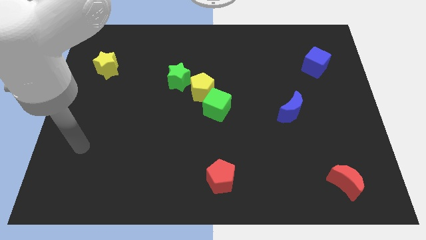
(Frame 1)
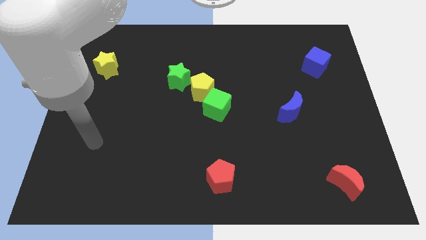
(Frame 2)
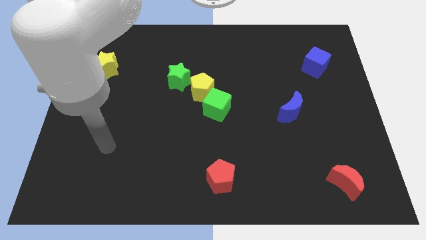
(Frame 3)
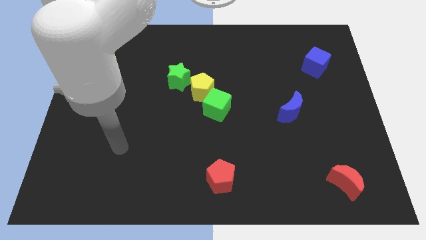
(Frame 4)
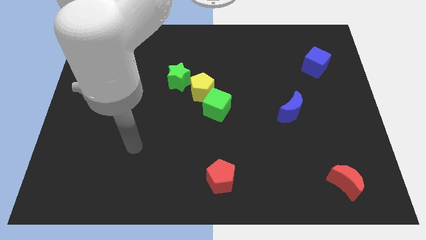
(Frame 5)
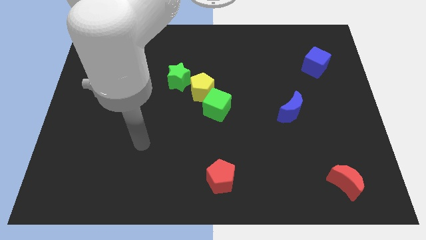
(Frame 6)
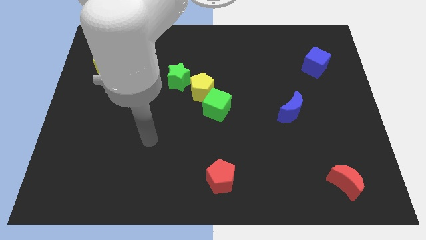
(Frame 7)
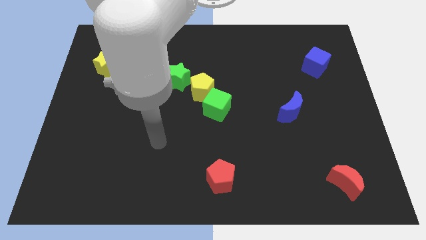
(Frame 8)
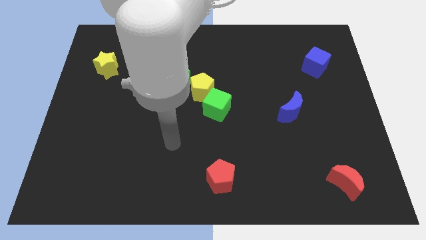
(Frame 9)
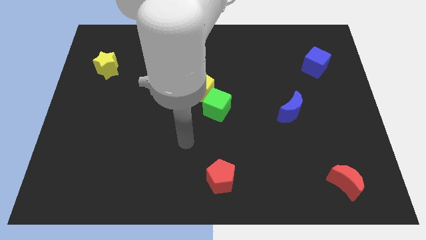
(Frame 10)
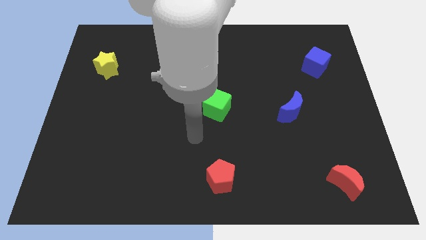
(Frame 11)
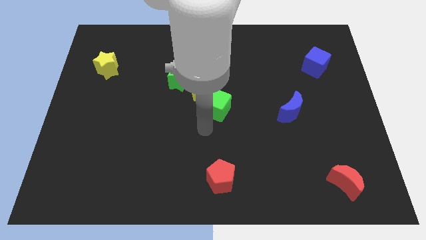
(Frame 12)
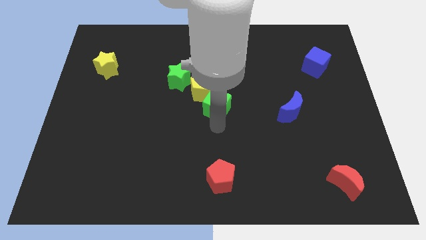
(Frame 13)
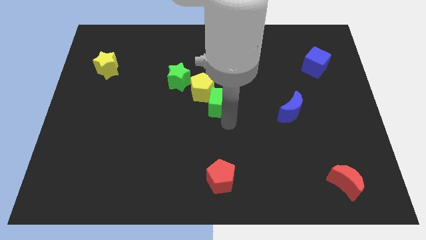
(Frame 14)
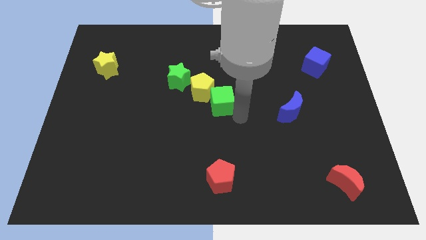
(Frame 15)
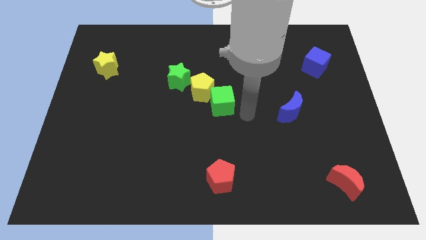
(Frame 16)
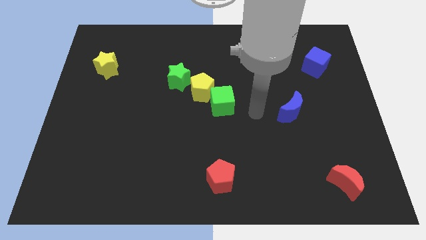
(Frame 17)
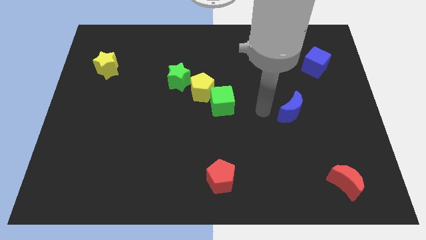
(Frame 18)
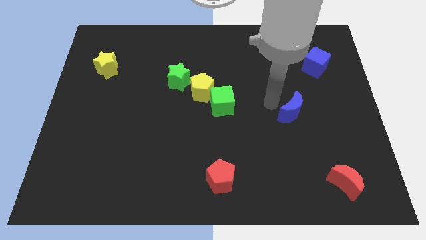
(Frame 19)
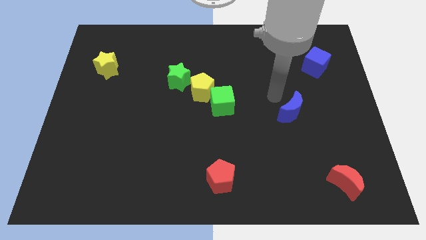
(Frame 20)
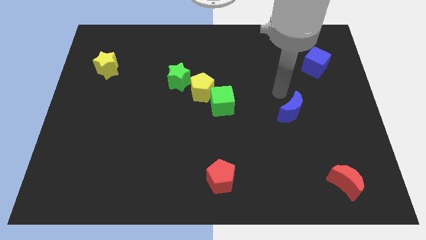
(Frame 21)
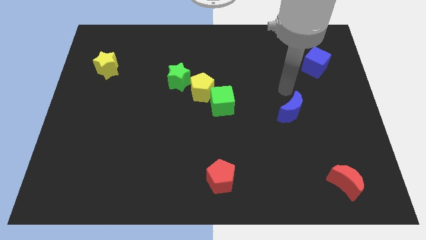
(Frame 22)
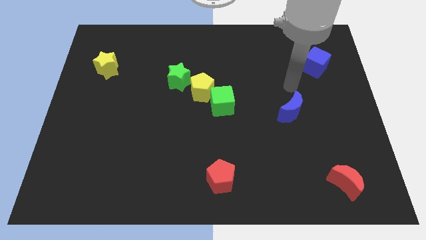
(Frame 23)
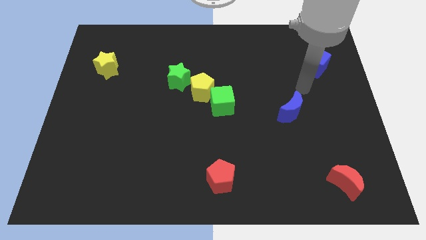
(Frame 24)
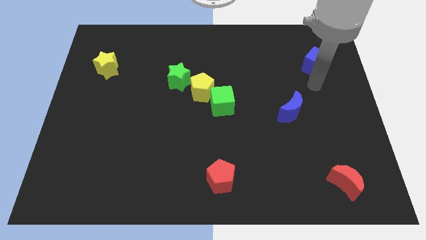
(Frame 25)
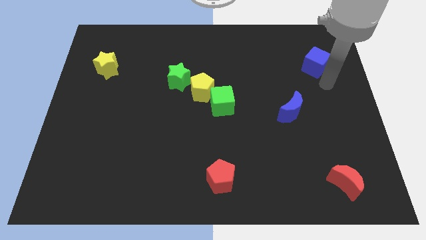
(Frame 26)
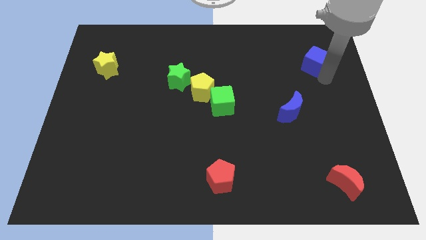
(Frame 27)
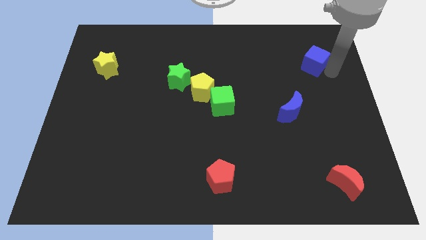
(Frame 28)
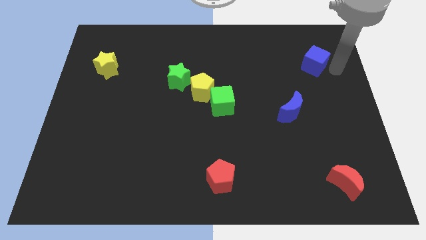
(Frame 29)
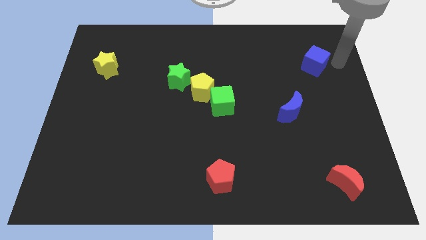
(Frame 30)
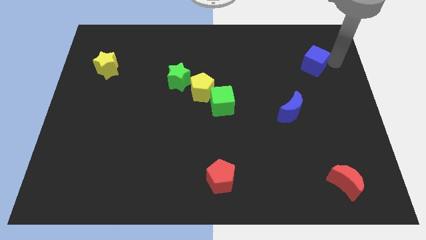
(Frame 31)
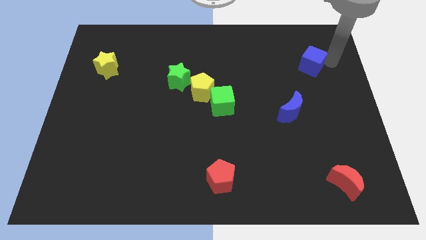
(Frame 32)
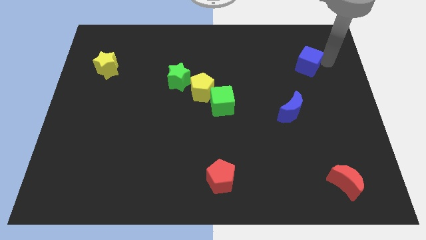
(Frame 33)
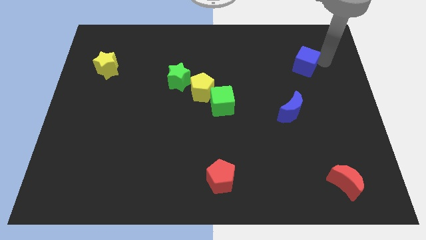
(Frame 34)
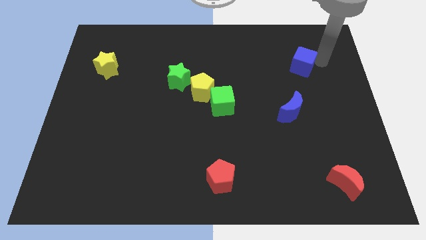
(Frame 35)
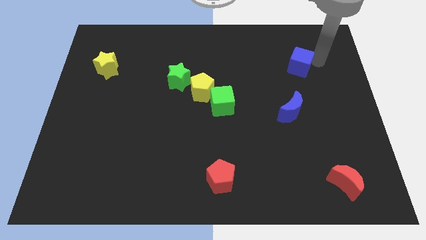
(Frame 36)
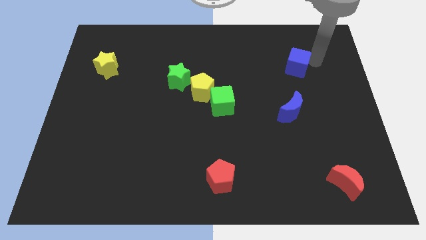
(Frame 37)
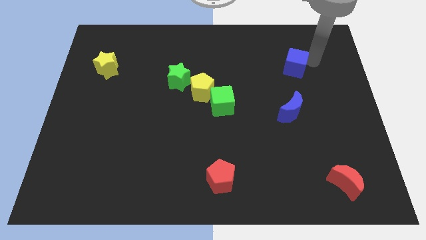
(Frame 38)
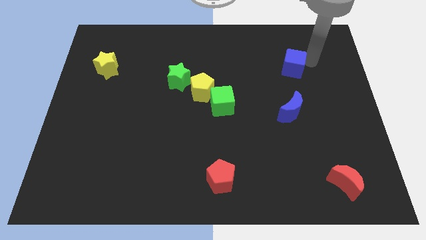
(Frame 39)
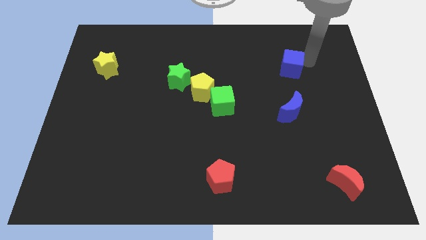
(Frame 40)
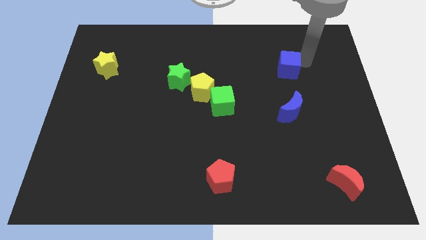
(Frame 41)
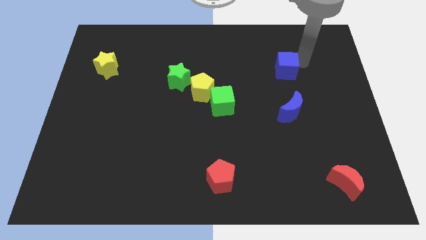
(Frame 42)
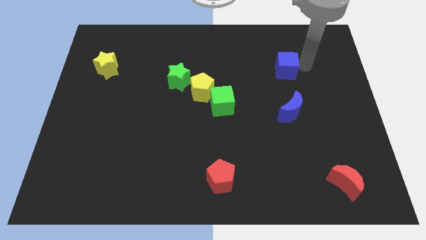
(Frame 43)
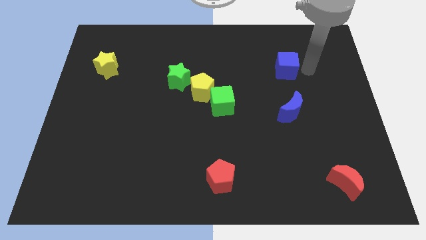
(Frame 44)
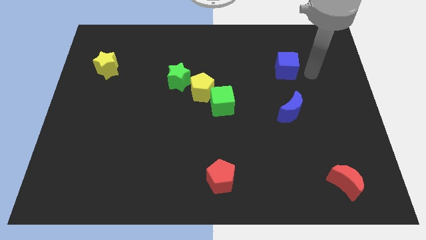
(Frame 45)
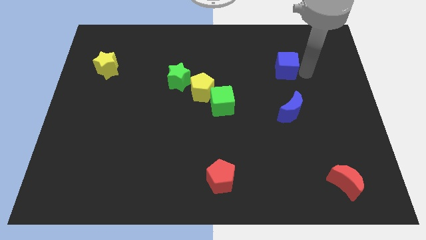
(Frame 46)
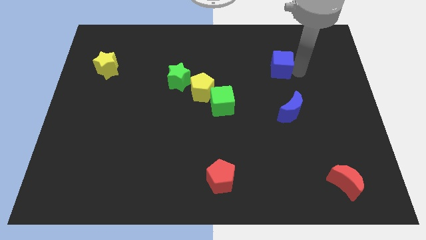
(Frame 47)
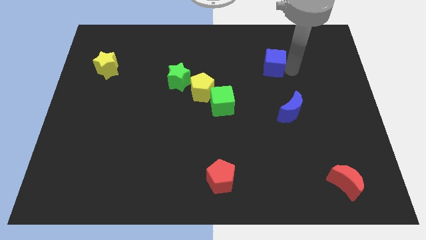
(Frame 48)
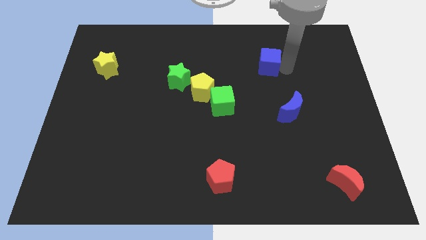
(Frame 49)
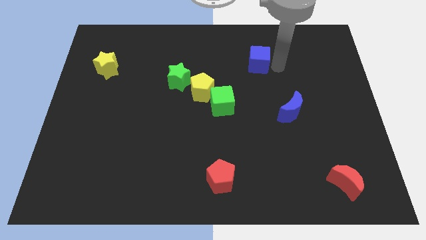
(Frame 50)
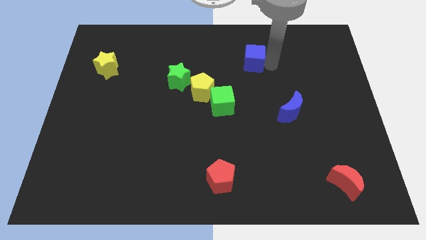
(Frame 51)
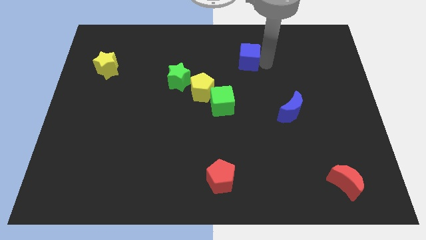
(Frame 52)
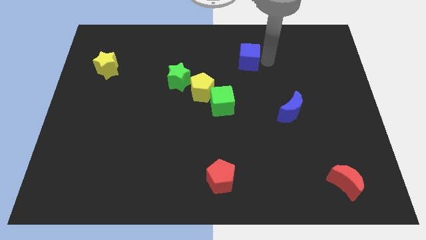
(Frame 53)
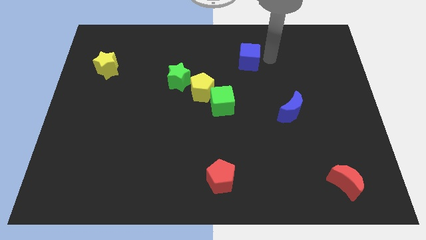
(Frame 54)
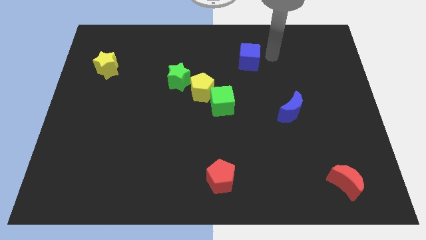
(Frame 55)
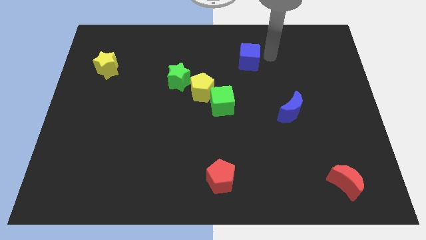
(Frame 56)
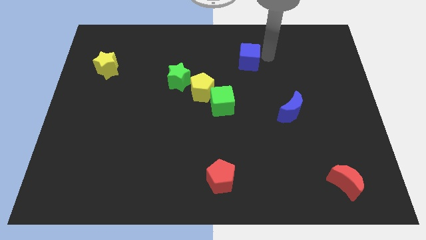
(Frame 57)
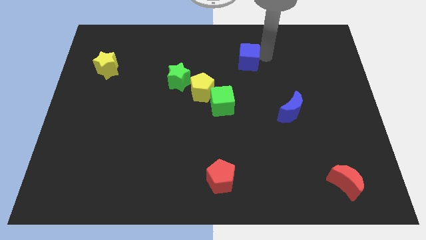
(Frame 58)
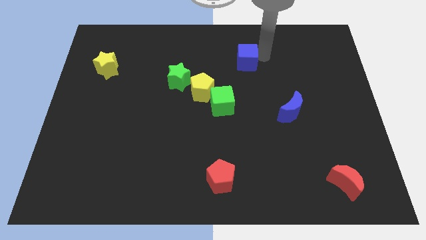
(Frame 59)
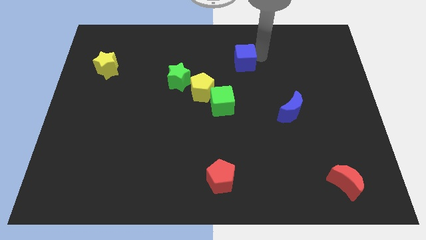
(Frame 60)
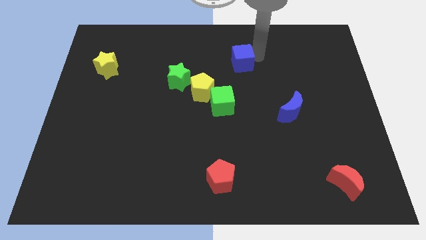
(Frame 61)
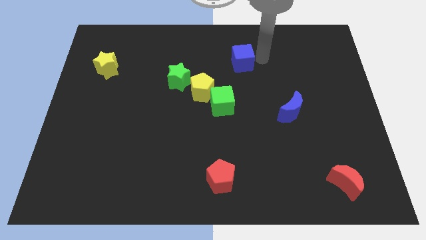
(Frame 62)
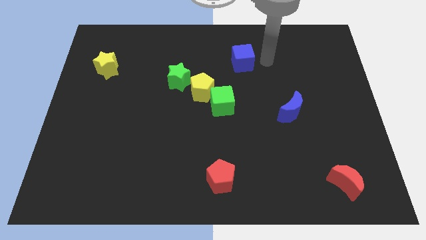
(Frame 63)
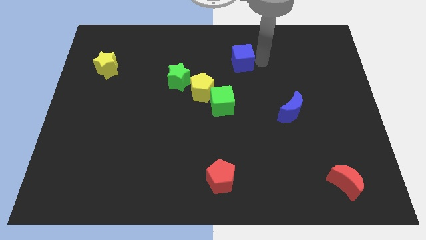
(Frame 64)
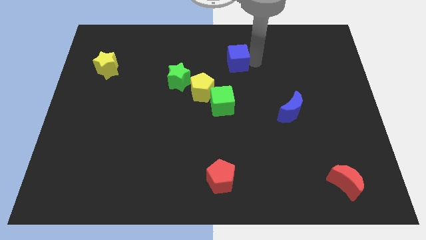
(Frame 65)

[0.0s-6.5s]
slide the blue cube left

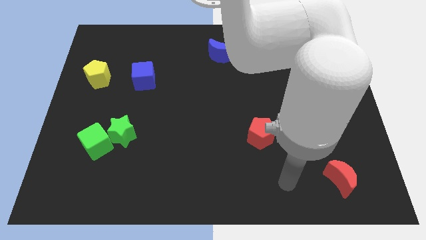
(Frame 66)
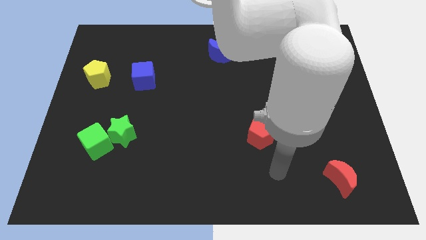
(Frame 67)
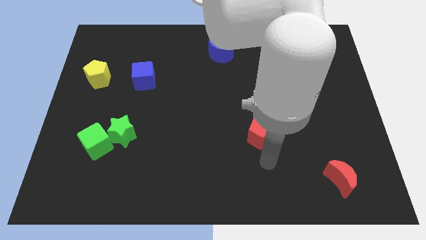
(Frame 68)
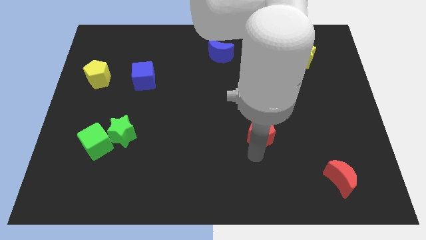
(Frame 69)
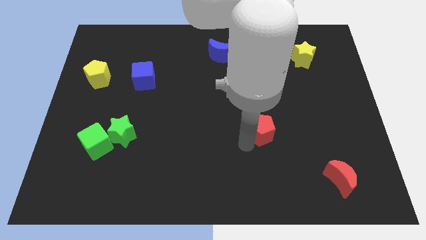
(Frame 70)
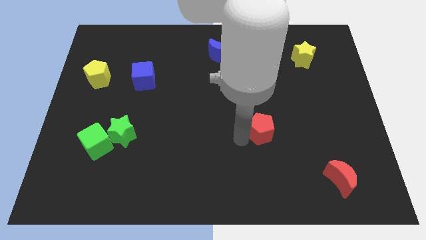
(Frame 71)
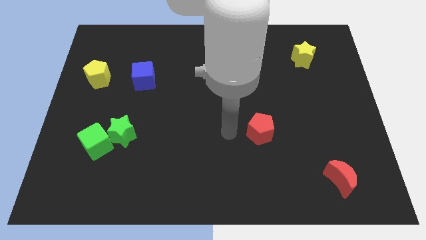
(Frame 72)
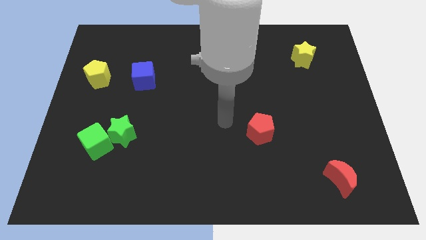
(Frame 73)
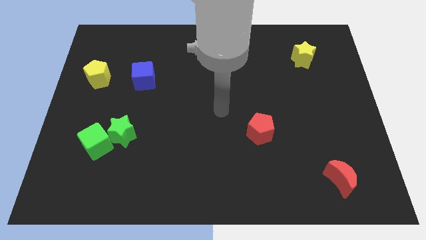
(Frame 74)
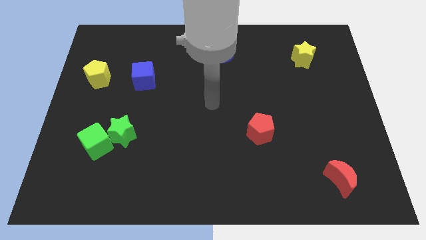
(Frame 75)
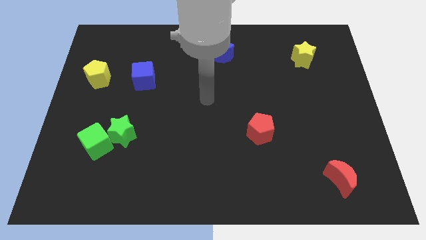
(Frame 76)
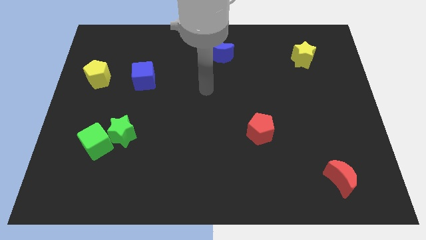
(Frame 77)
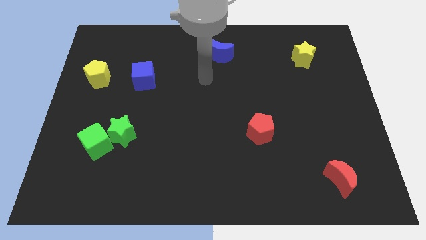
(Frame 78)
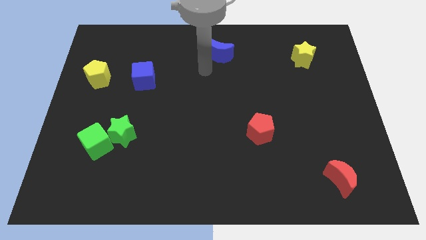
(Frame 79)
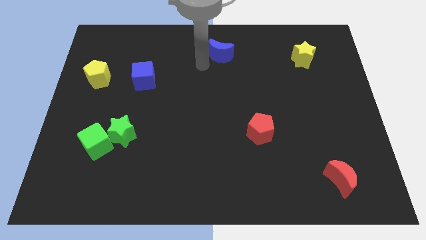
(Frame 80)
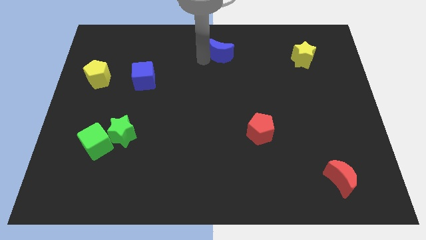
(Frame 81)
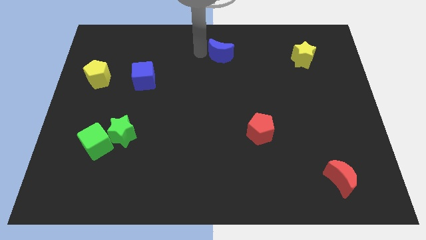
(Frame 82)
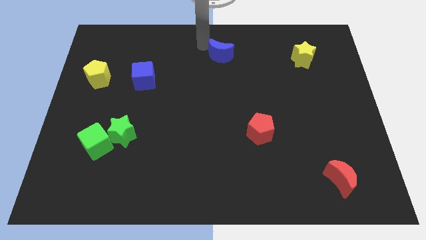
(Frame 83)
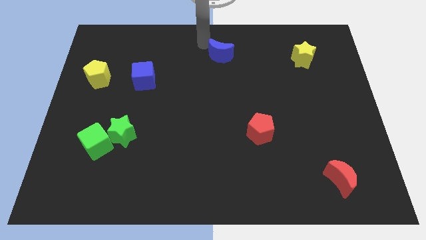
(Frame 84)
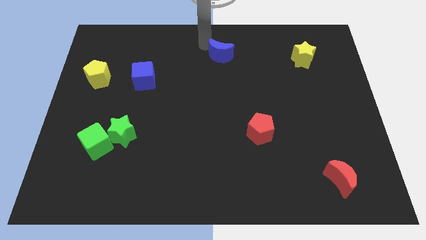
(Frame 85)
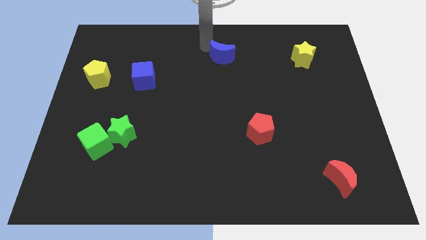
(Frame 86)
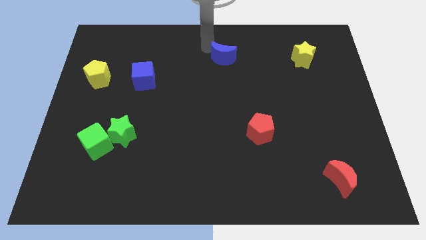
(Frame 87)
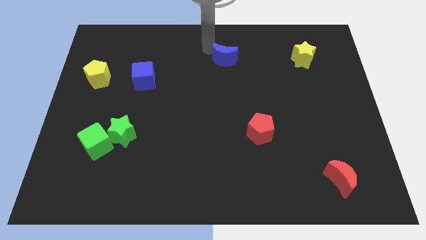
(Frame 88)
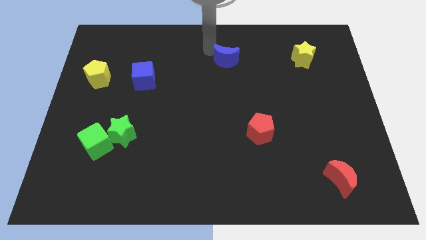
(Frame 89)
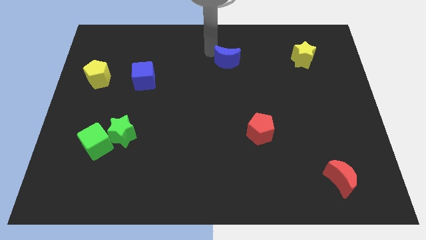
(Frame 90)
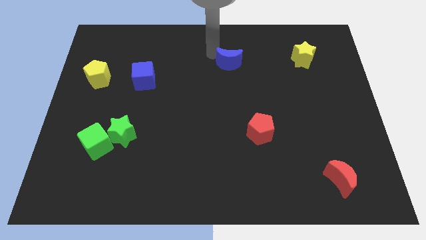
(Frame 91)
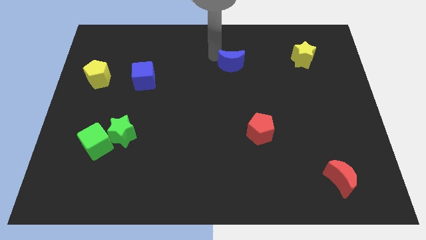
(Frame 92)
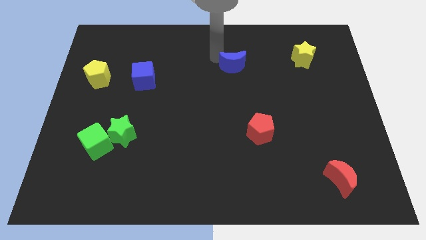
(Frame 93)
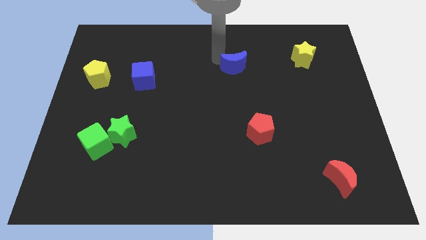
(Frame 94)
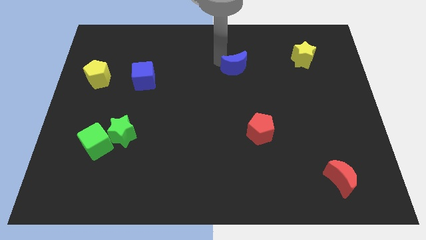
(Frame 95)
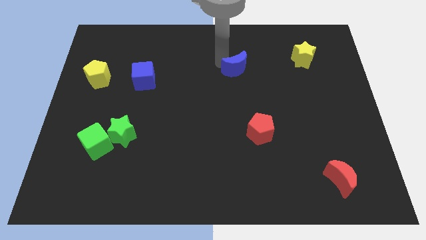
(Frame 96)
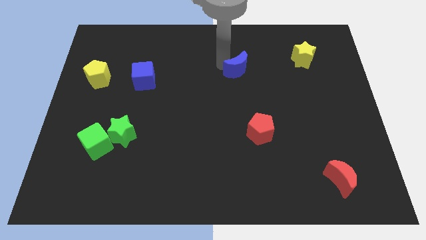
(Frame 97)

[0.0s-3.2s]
push the blue moon a little downwards and right
